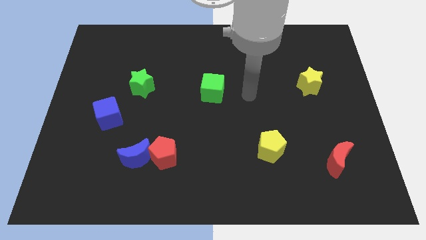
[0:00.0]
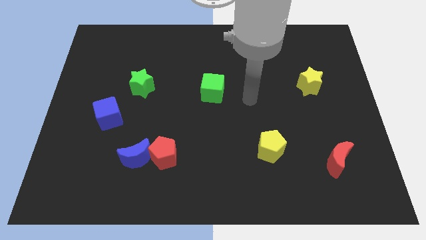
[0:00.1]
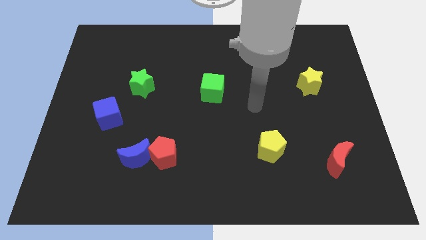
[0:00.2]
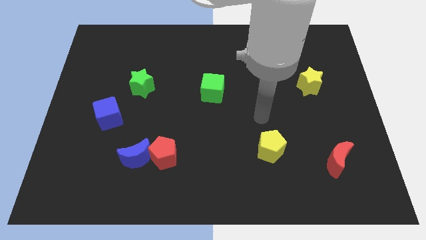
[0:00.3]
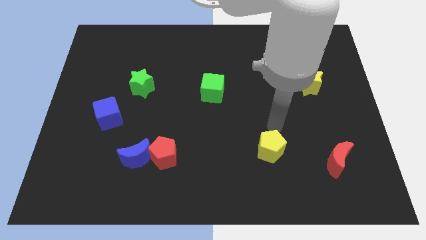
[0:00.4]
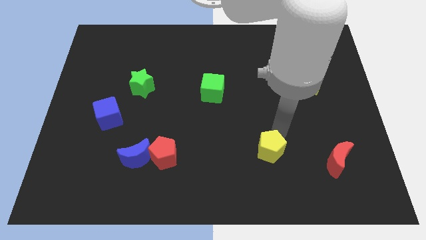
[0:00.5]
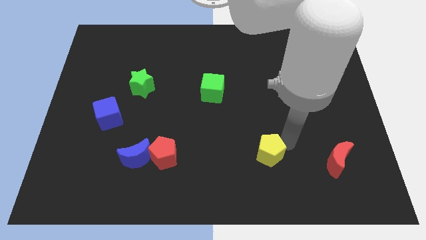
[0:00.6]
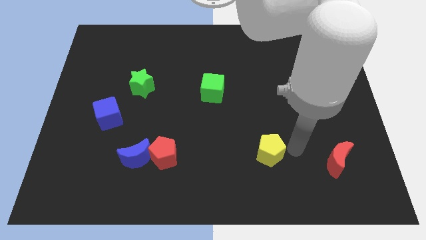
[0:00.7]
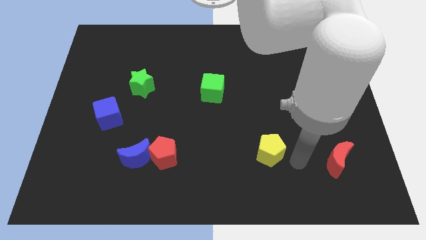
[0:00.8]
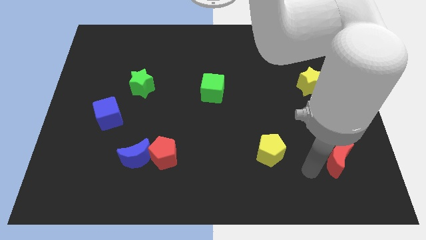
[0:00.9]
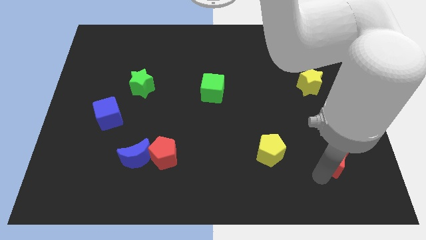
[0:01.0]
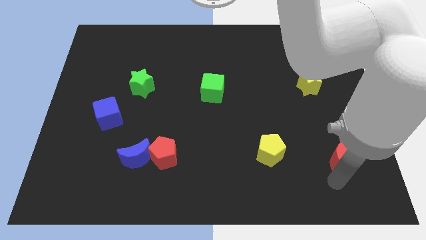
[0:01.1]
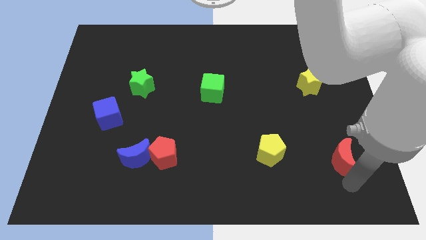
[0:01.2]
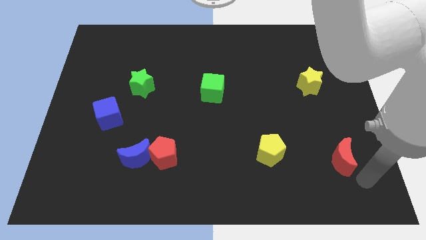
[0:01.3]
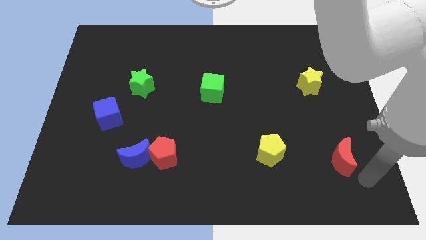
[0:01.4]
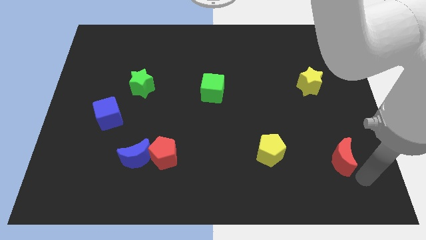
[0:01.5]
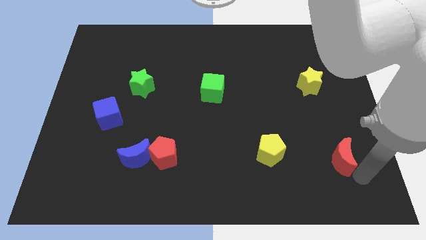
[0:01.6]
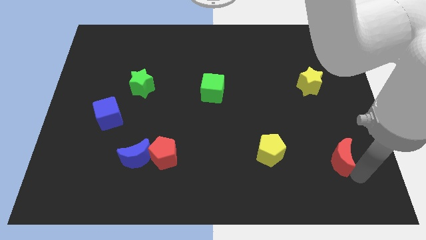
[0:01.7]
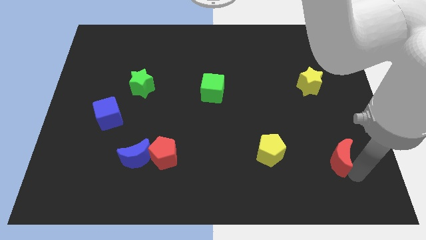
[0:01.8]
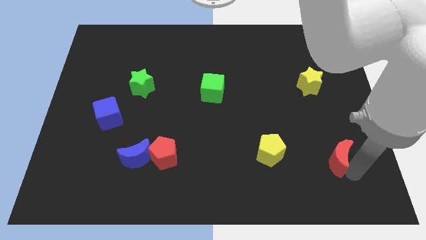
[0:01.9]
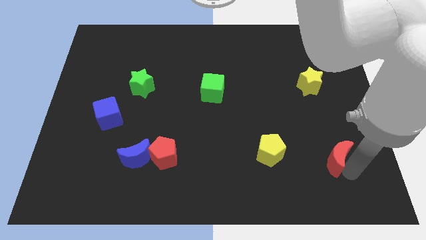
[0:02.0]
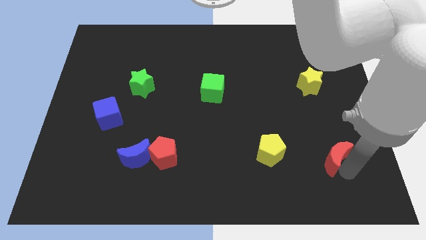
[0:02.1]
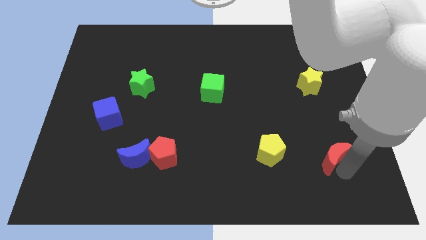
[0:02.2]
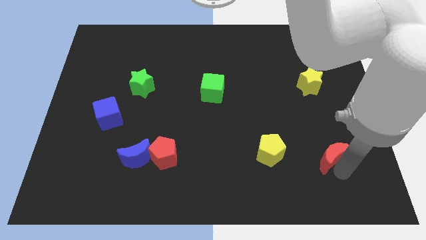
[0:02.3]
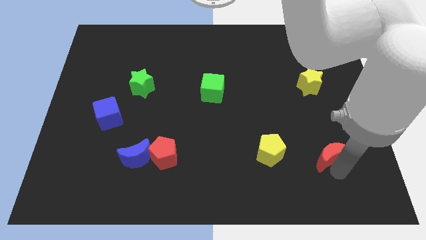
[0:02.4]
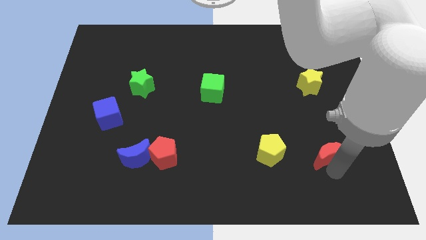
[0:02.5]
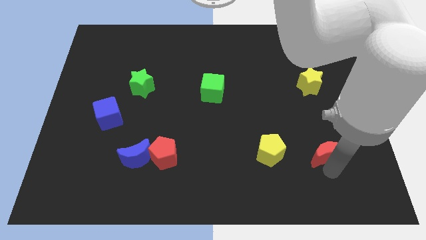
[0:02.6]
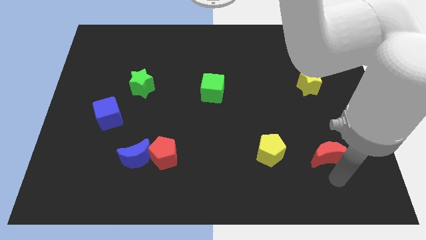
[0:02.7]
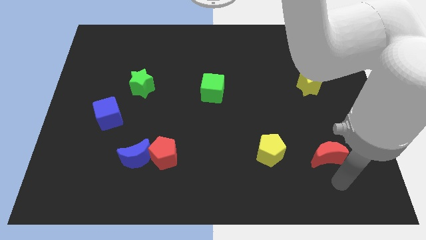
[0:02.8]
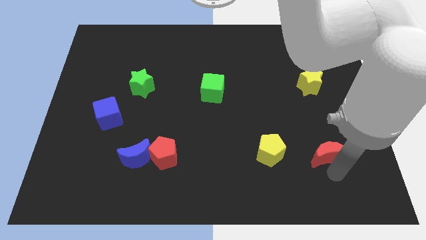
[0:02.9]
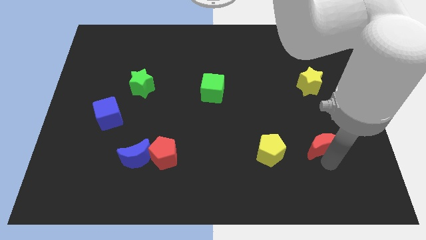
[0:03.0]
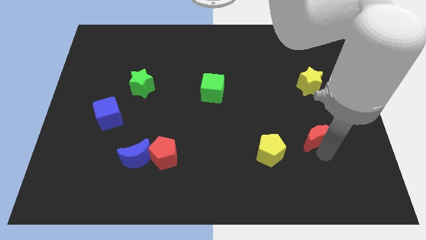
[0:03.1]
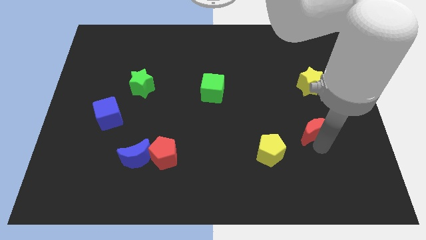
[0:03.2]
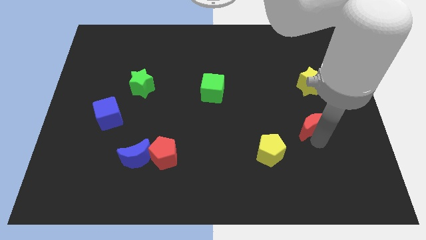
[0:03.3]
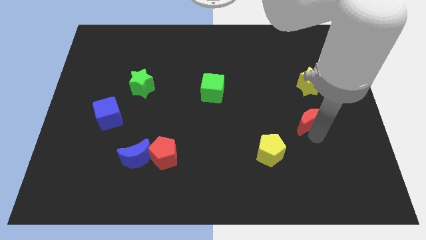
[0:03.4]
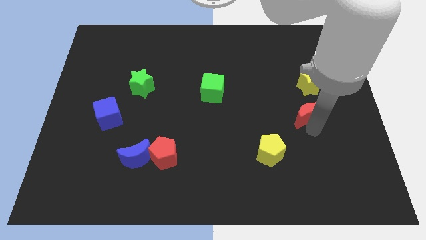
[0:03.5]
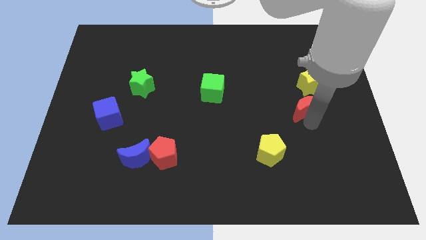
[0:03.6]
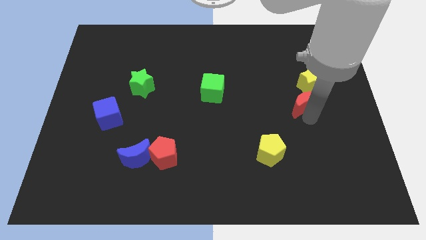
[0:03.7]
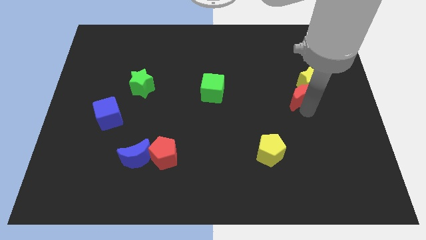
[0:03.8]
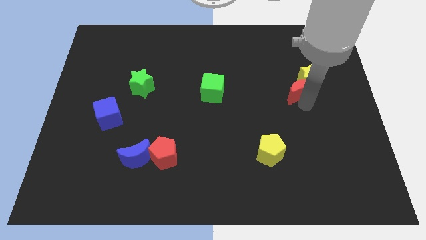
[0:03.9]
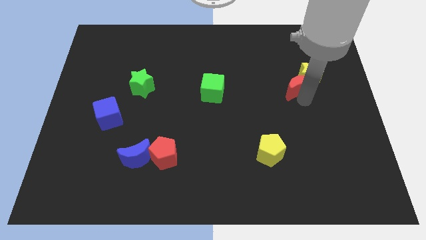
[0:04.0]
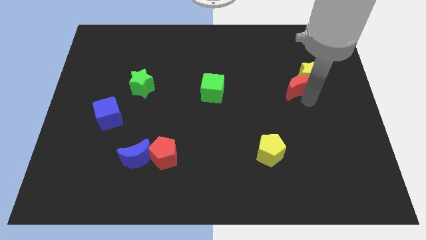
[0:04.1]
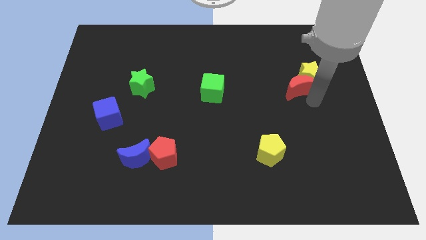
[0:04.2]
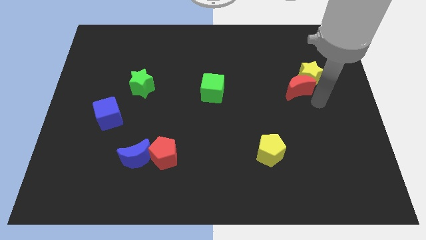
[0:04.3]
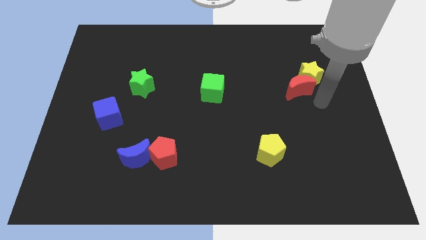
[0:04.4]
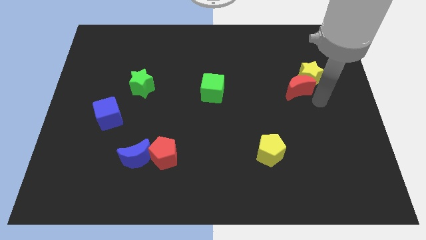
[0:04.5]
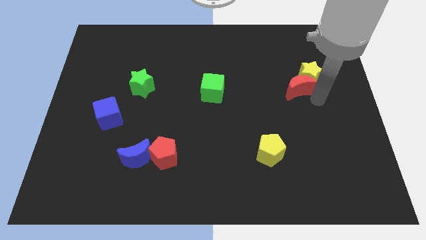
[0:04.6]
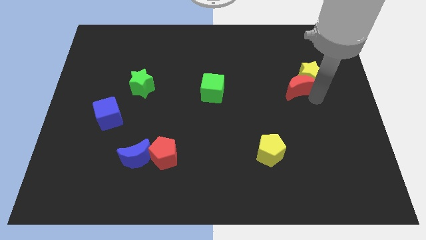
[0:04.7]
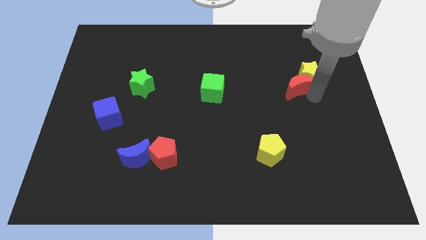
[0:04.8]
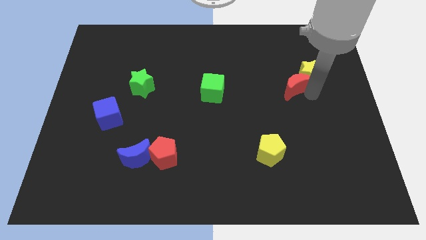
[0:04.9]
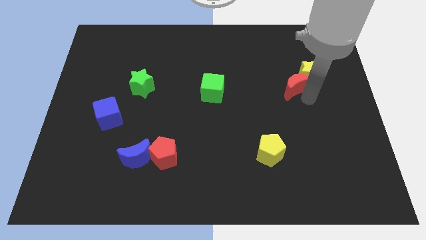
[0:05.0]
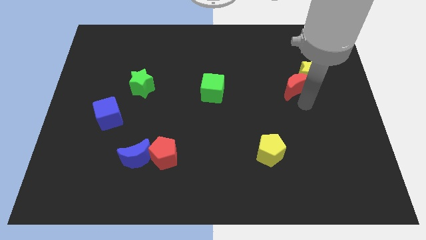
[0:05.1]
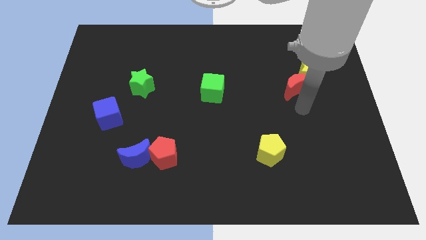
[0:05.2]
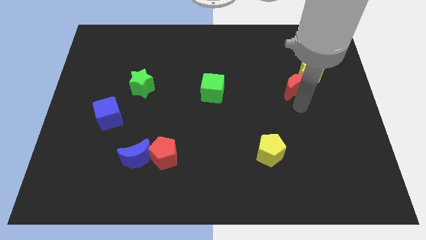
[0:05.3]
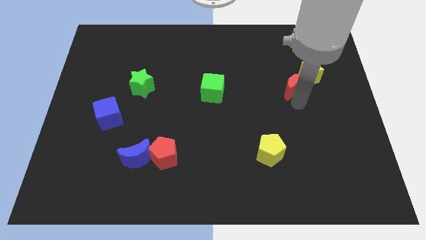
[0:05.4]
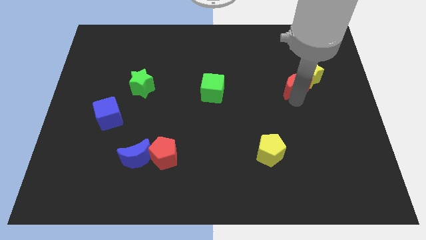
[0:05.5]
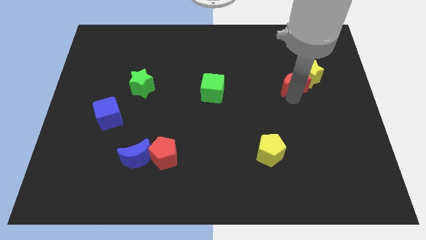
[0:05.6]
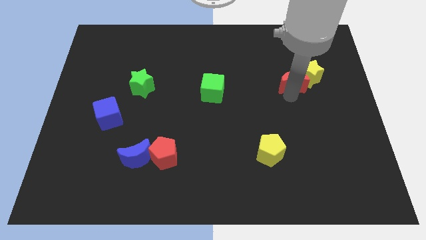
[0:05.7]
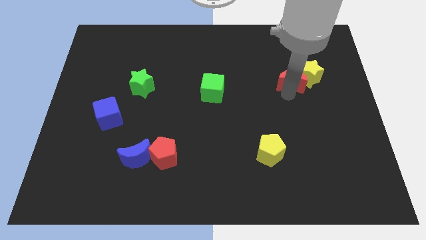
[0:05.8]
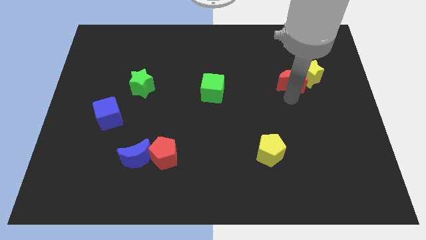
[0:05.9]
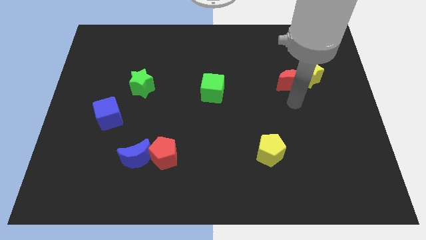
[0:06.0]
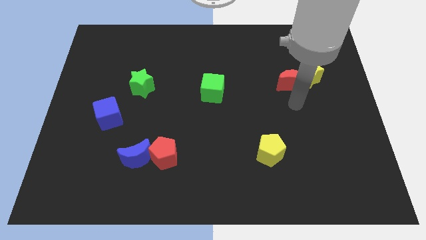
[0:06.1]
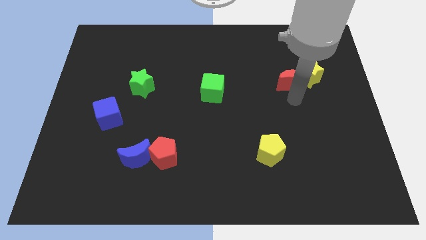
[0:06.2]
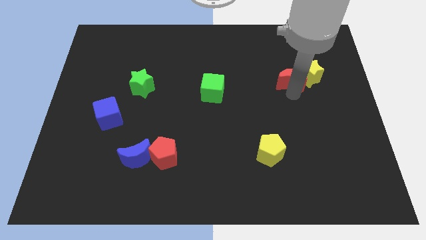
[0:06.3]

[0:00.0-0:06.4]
move the red moon to the top left side of the yellow star

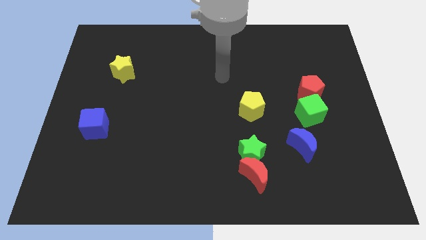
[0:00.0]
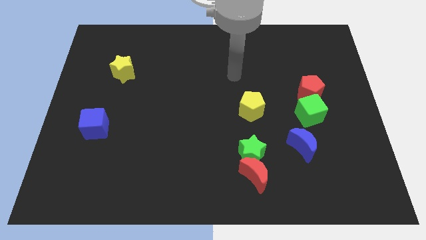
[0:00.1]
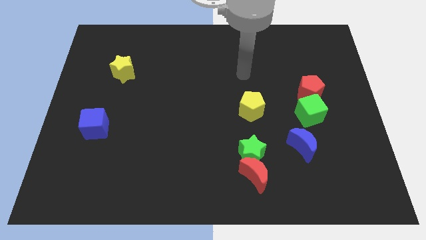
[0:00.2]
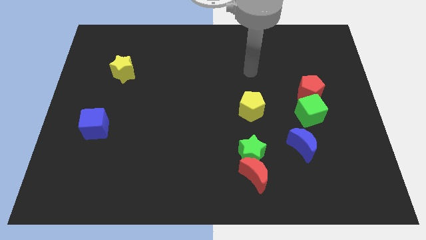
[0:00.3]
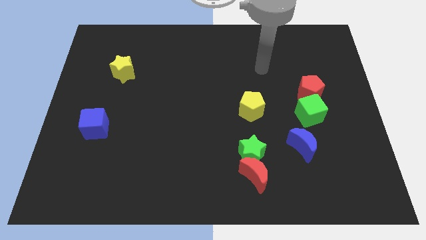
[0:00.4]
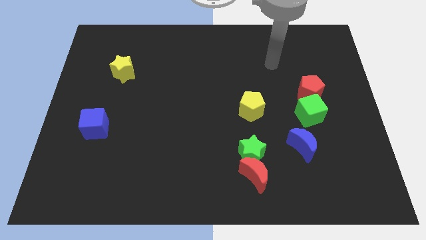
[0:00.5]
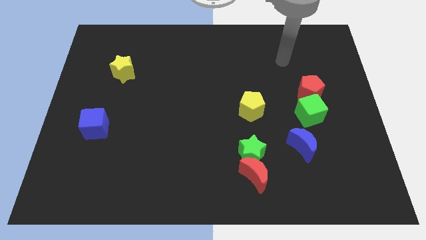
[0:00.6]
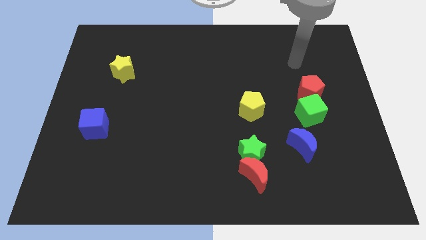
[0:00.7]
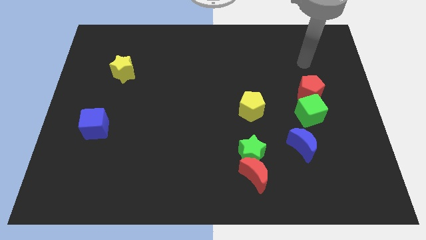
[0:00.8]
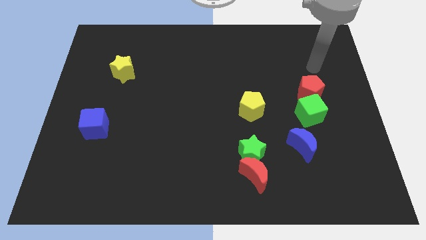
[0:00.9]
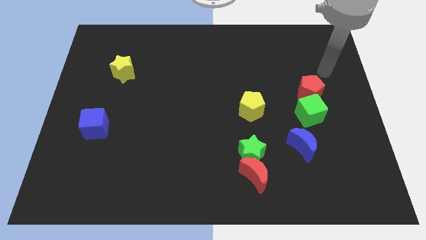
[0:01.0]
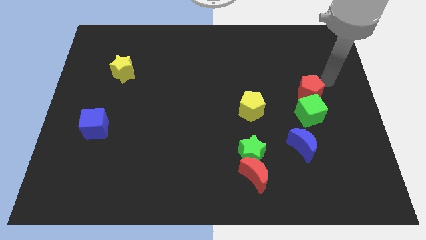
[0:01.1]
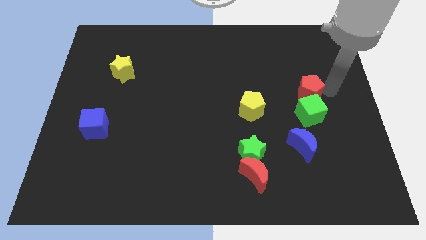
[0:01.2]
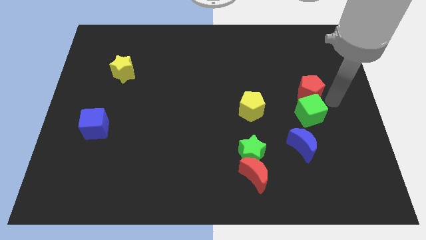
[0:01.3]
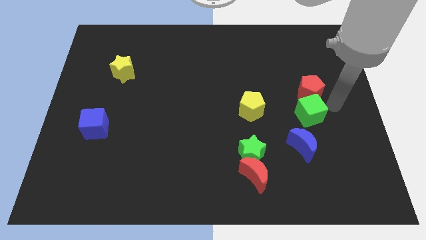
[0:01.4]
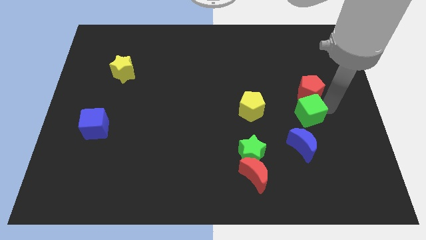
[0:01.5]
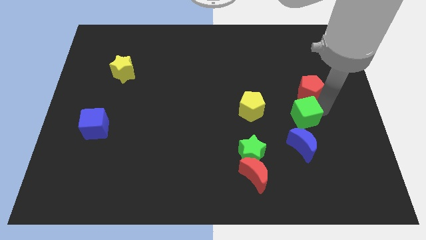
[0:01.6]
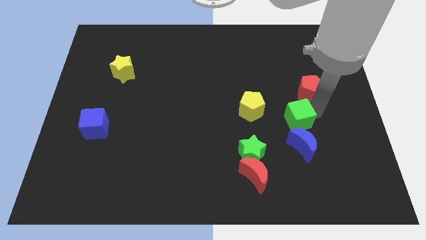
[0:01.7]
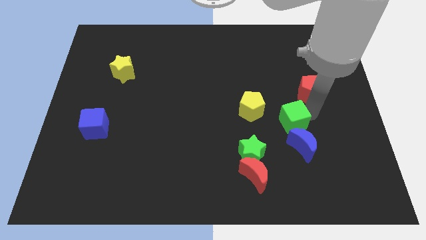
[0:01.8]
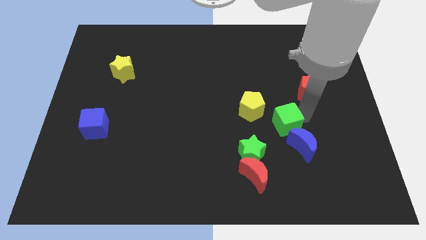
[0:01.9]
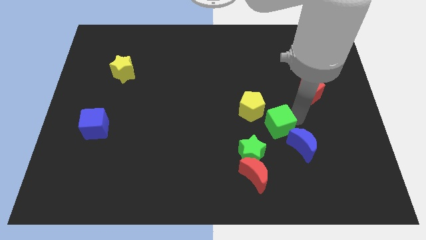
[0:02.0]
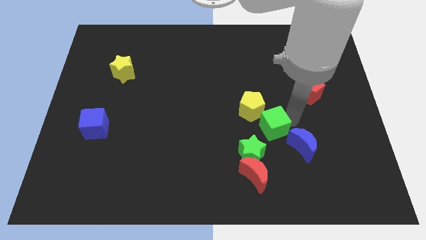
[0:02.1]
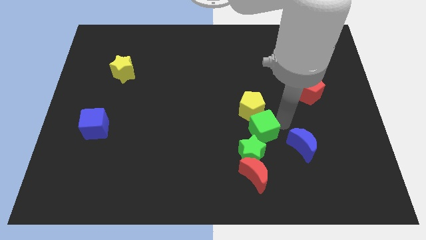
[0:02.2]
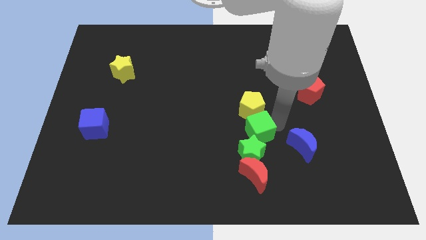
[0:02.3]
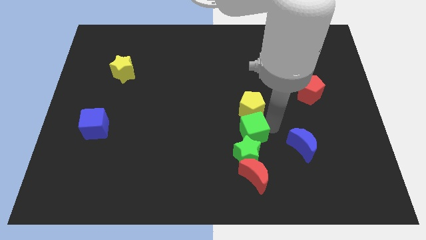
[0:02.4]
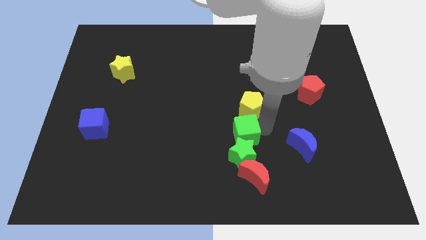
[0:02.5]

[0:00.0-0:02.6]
put the green cube to the top left of the green star
